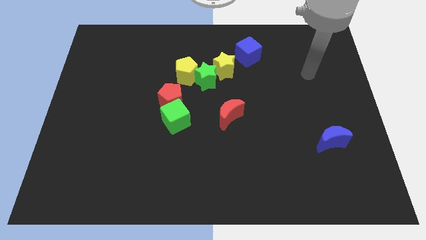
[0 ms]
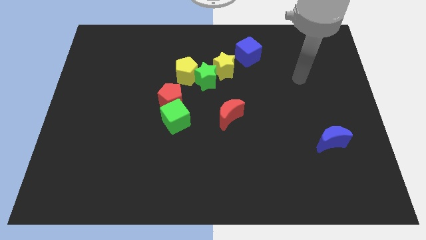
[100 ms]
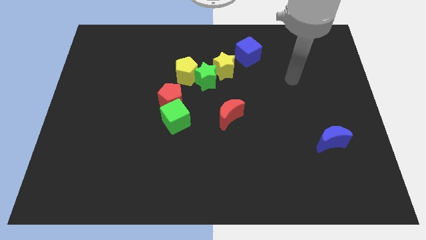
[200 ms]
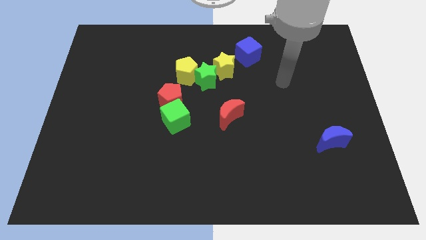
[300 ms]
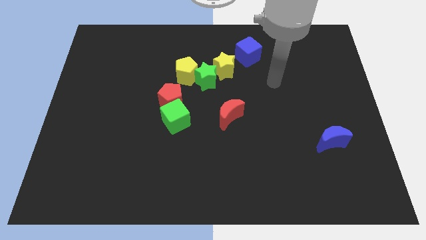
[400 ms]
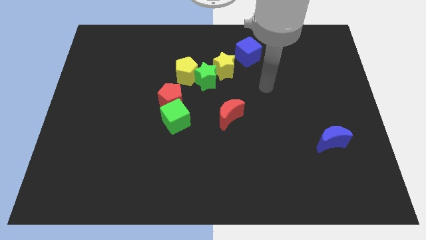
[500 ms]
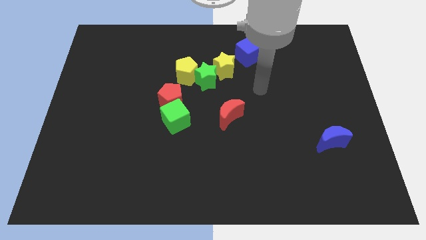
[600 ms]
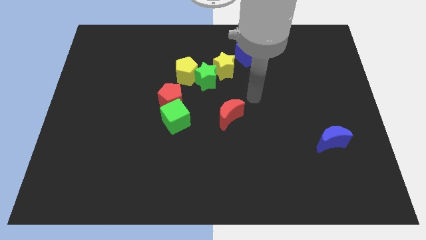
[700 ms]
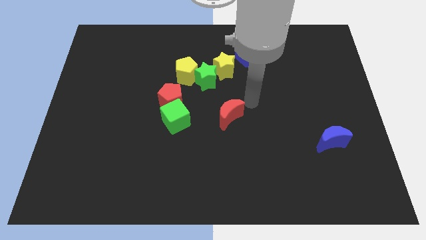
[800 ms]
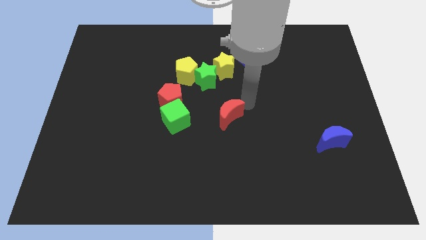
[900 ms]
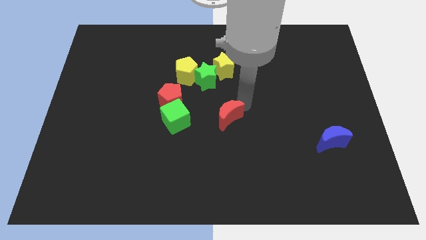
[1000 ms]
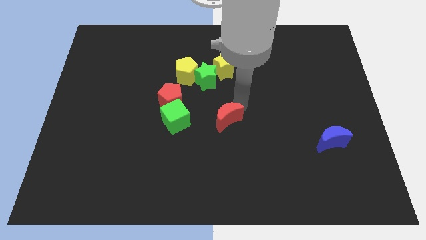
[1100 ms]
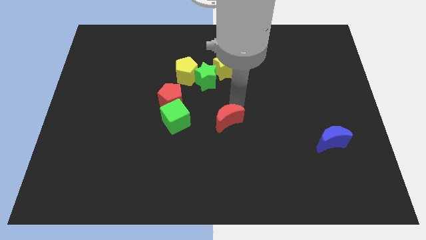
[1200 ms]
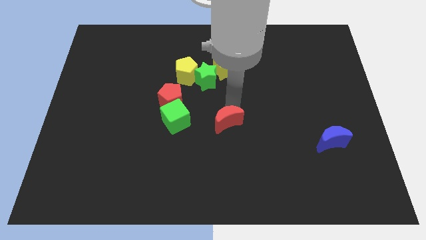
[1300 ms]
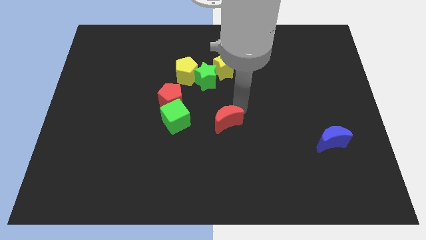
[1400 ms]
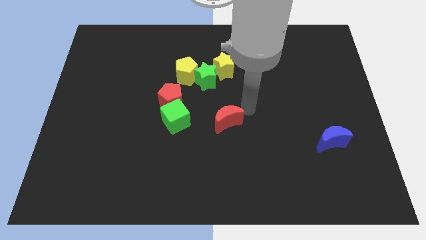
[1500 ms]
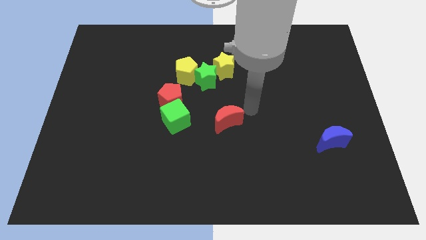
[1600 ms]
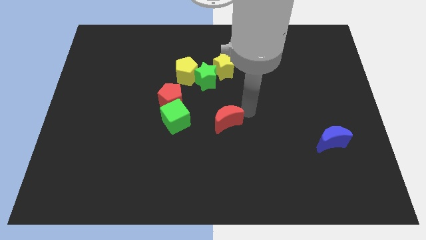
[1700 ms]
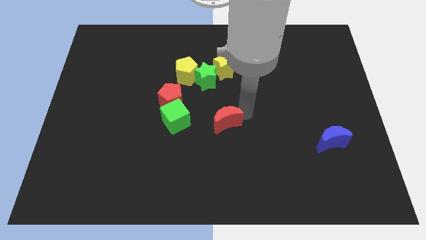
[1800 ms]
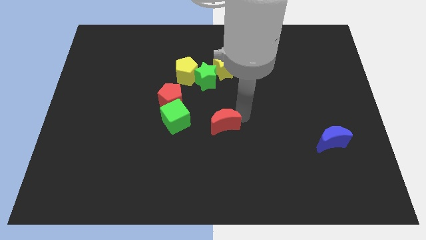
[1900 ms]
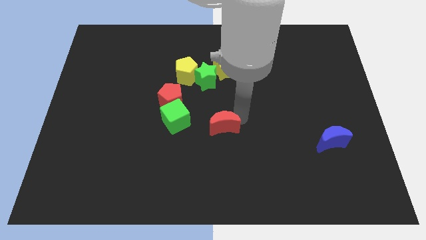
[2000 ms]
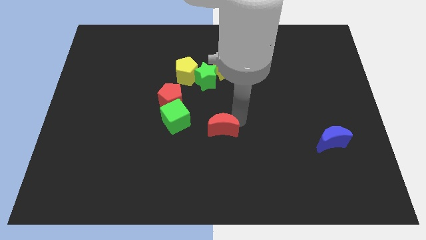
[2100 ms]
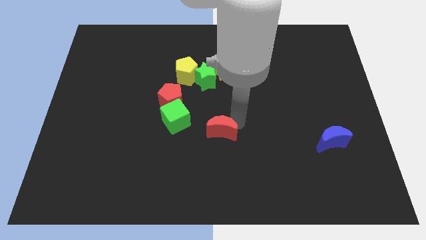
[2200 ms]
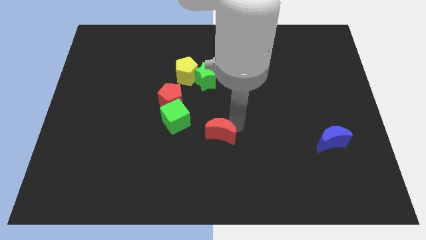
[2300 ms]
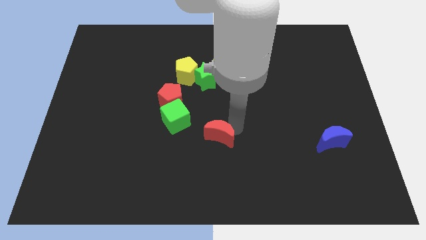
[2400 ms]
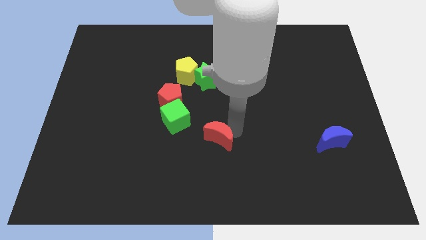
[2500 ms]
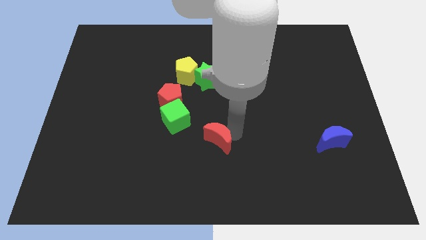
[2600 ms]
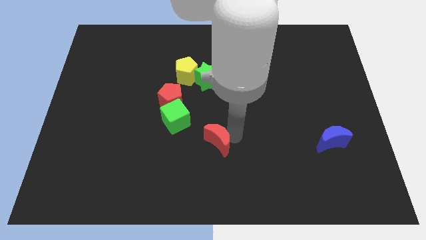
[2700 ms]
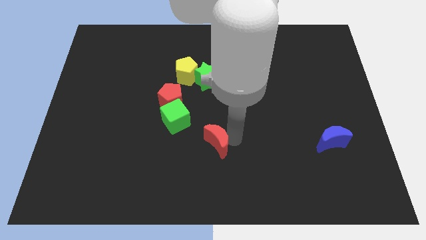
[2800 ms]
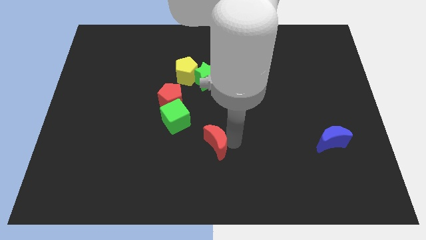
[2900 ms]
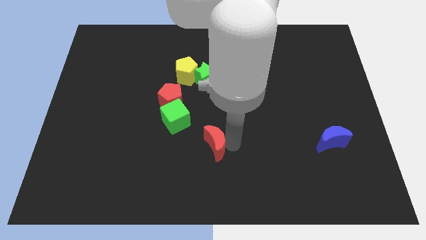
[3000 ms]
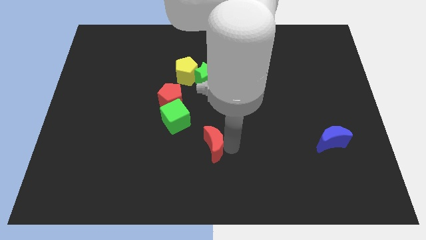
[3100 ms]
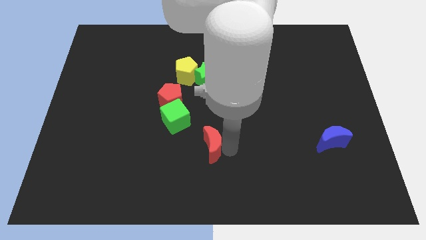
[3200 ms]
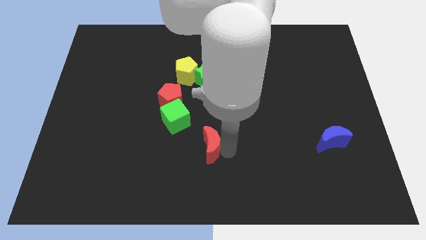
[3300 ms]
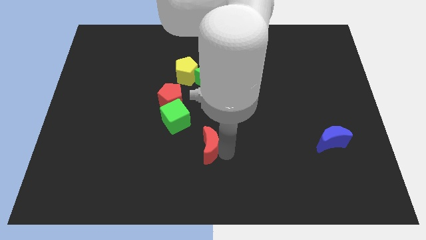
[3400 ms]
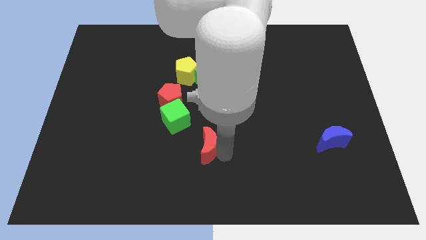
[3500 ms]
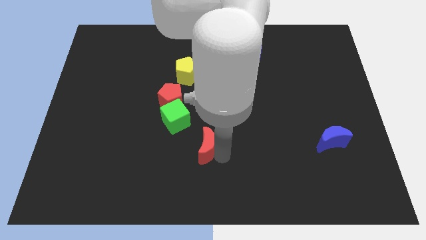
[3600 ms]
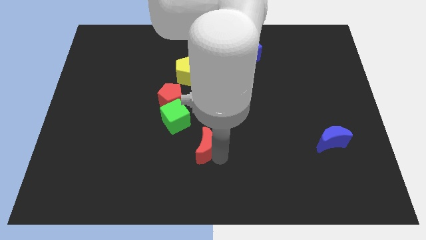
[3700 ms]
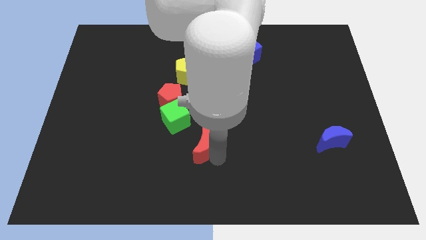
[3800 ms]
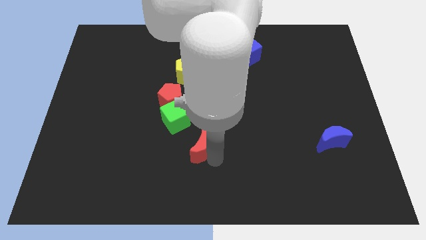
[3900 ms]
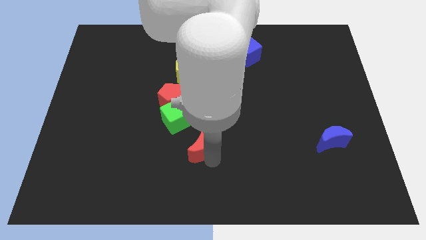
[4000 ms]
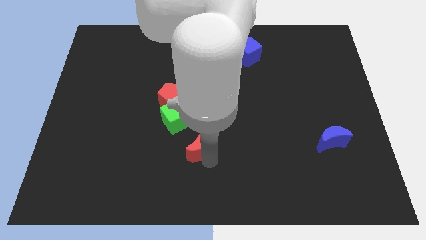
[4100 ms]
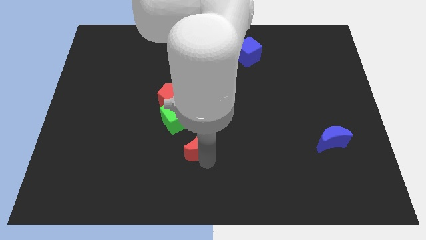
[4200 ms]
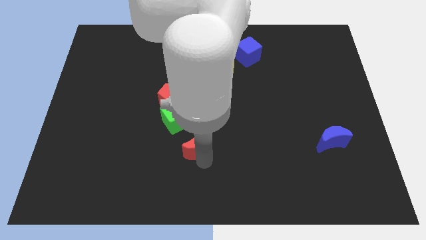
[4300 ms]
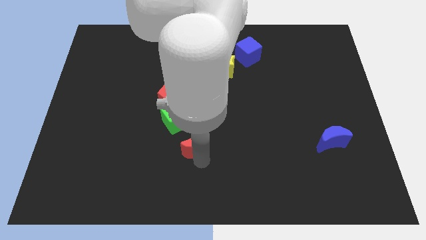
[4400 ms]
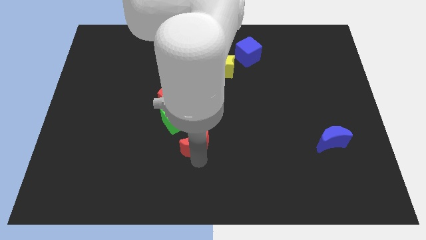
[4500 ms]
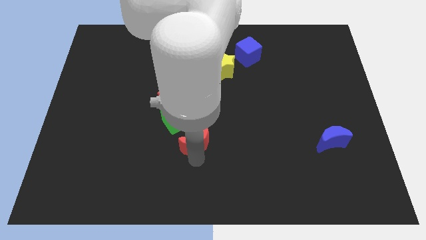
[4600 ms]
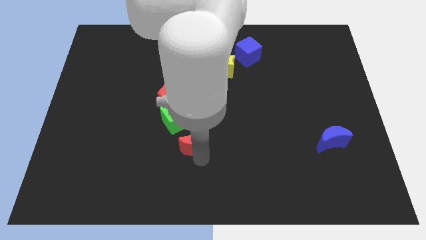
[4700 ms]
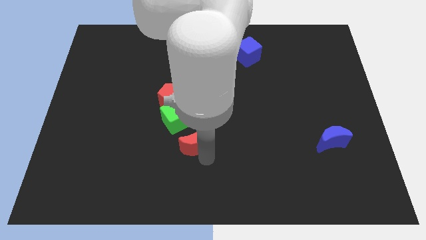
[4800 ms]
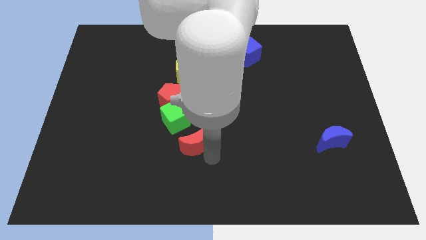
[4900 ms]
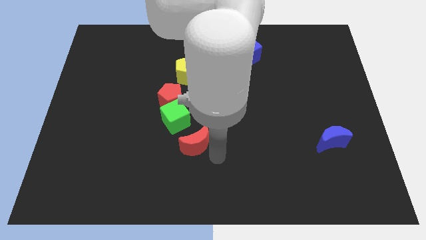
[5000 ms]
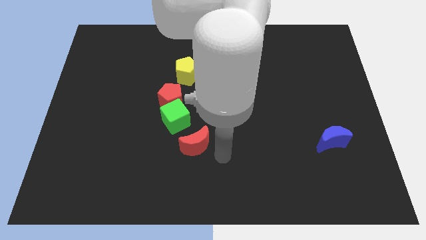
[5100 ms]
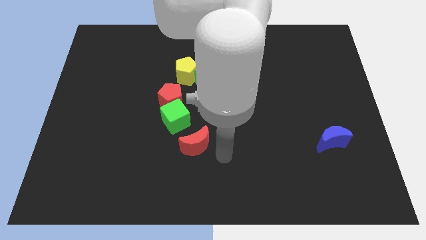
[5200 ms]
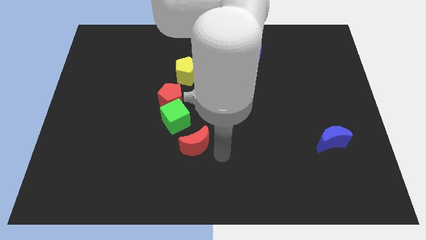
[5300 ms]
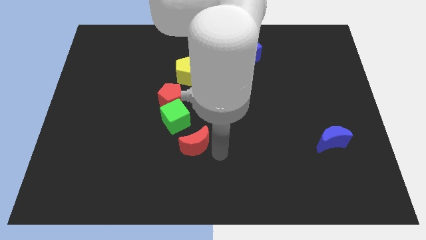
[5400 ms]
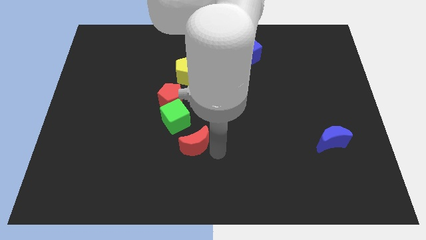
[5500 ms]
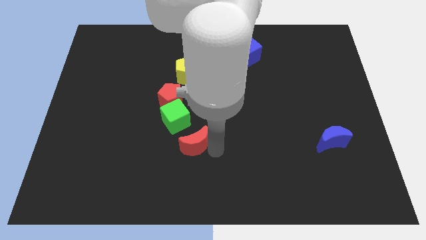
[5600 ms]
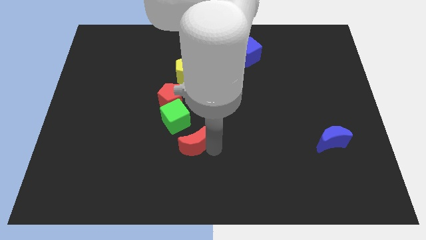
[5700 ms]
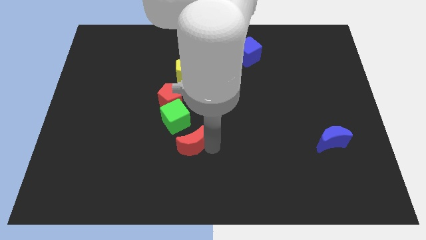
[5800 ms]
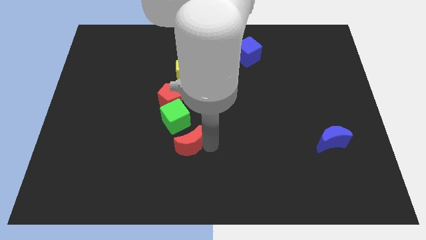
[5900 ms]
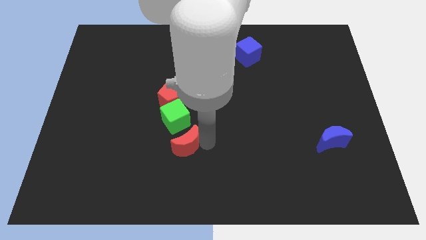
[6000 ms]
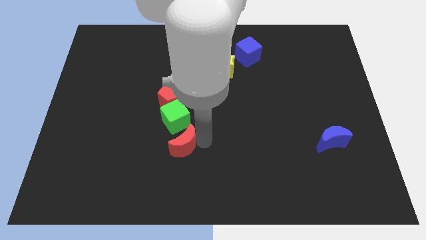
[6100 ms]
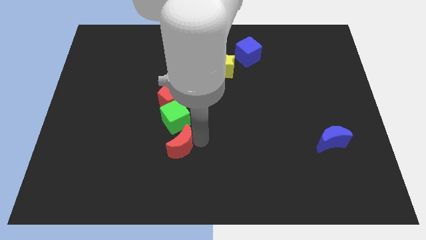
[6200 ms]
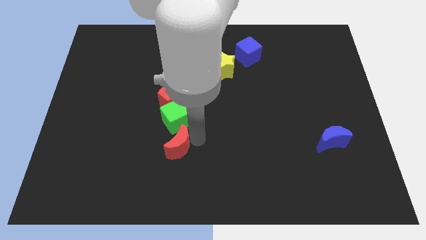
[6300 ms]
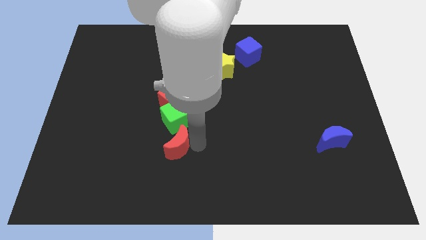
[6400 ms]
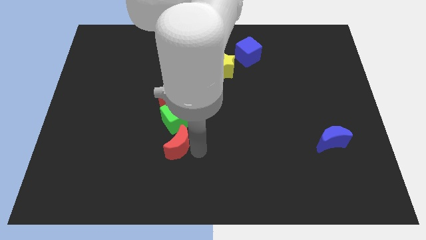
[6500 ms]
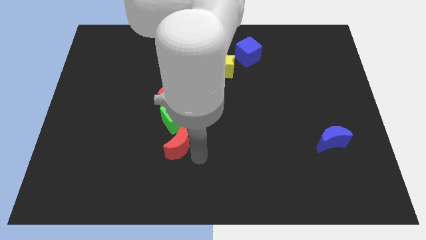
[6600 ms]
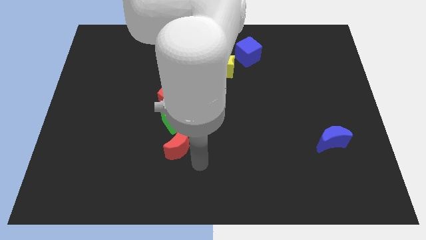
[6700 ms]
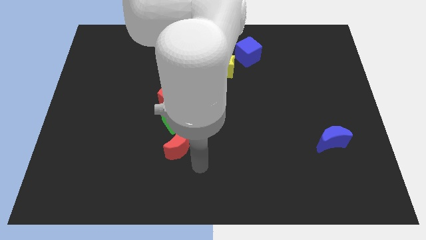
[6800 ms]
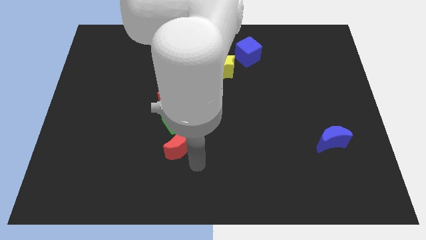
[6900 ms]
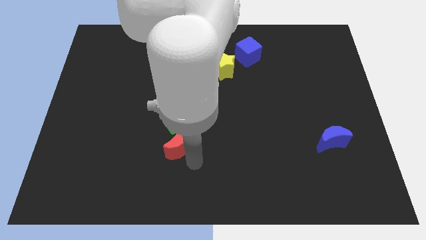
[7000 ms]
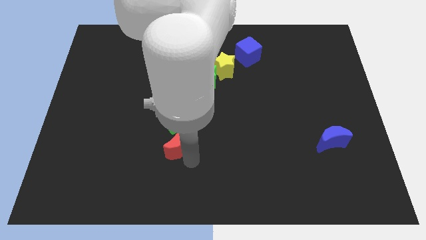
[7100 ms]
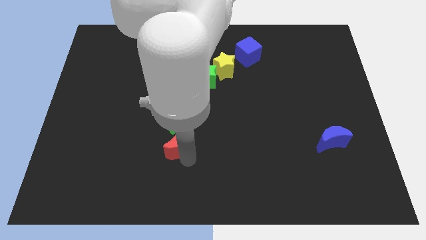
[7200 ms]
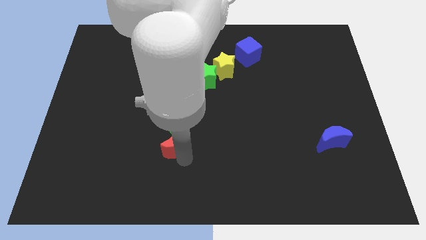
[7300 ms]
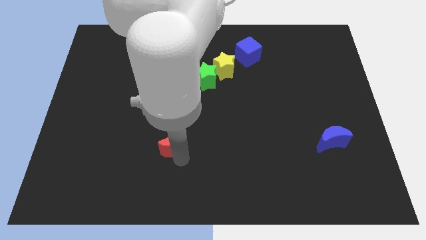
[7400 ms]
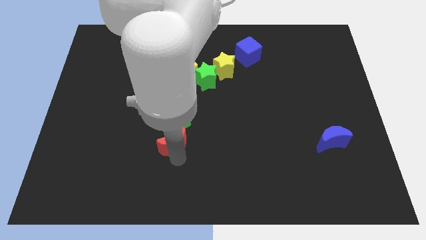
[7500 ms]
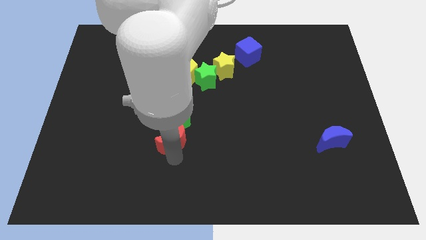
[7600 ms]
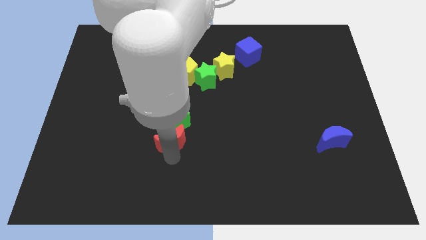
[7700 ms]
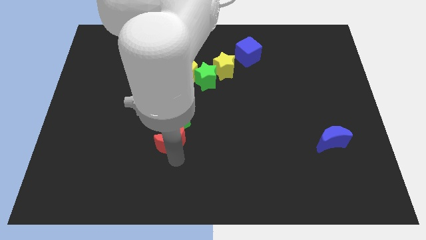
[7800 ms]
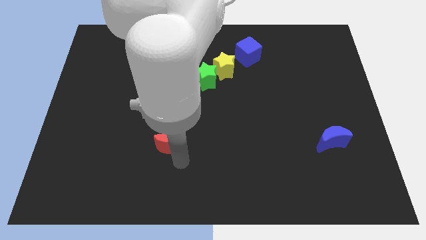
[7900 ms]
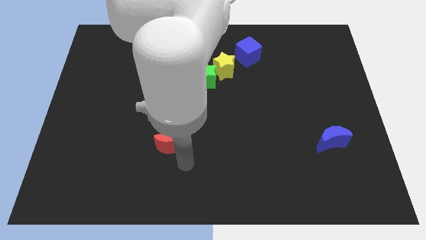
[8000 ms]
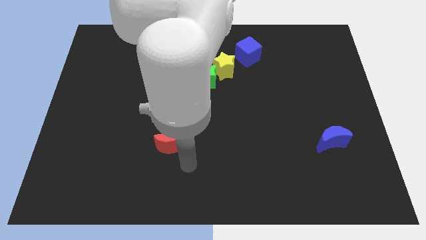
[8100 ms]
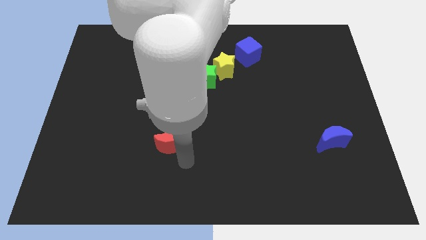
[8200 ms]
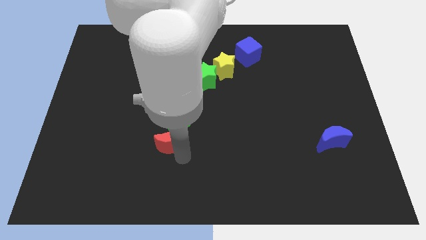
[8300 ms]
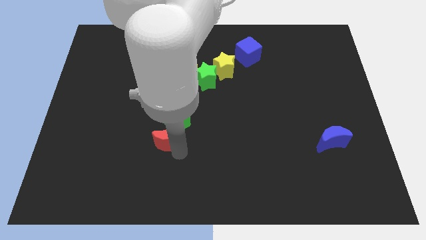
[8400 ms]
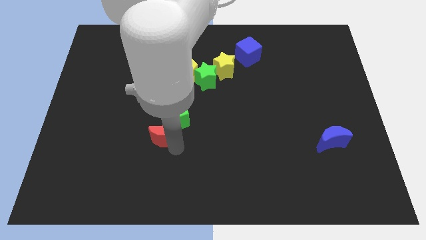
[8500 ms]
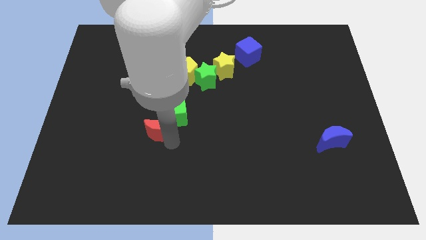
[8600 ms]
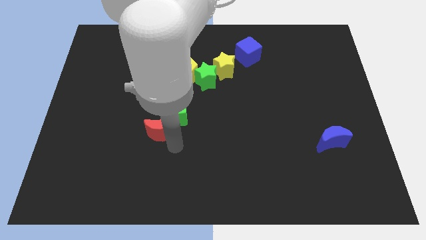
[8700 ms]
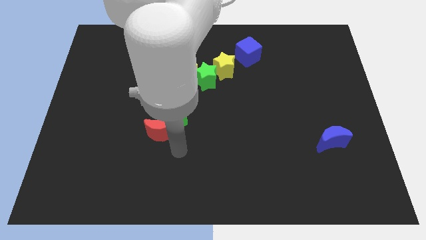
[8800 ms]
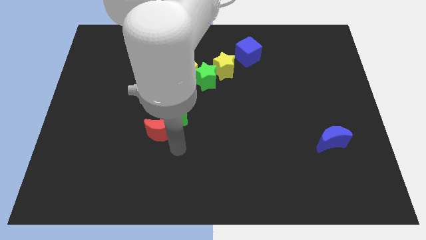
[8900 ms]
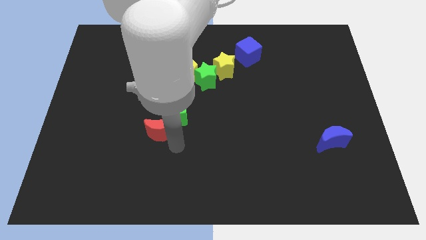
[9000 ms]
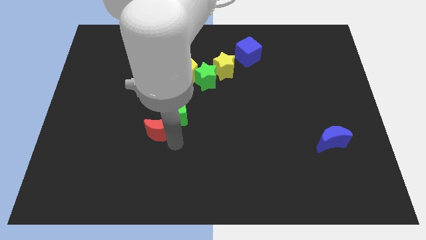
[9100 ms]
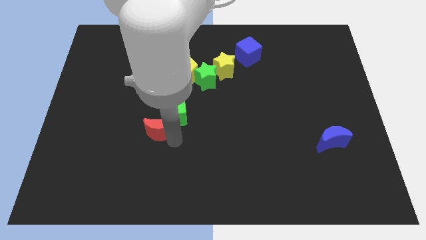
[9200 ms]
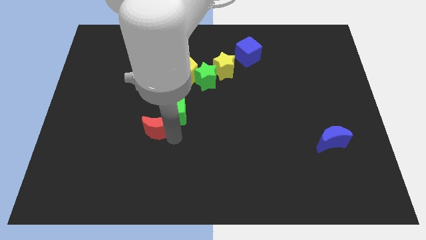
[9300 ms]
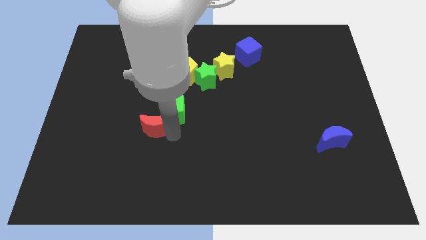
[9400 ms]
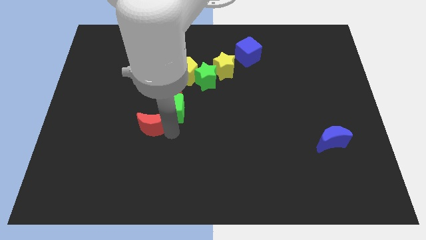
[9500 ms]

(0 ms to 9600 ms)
slide the red moon diagonally down and to the left of the red pentagon
